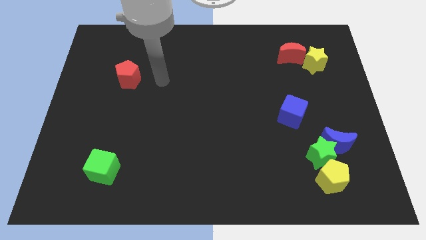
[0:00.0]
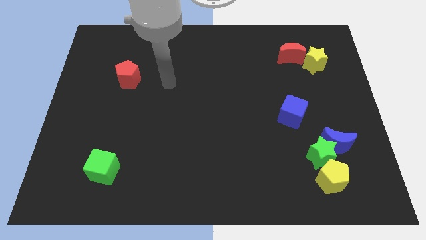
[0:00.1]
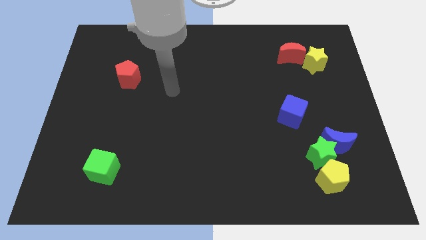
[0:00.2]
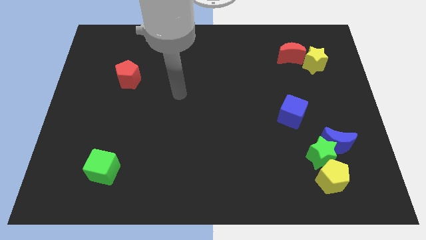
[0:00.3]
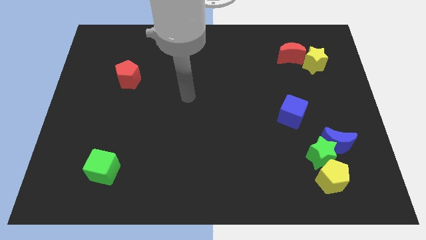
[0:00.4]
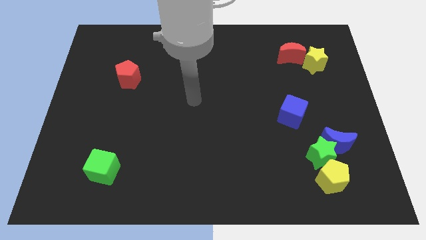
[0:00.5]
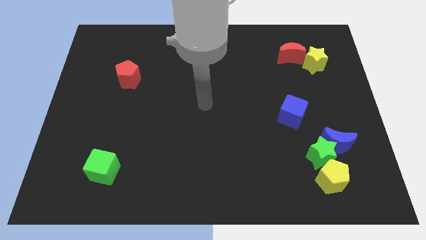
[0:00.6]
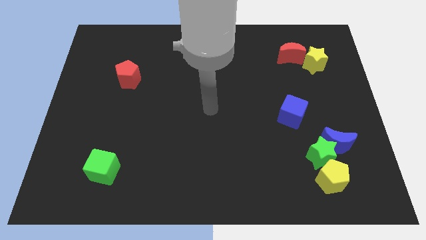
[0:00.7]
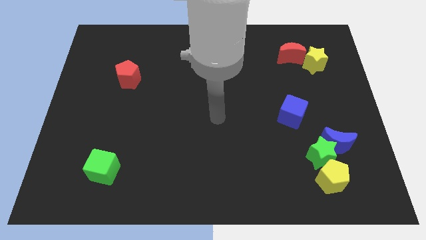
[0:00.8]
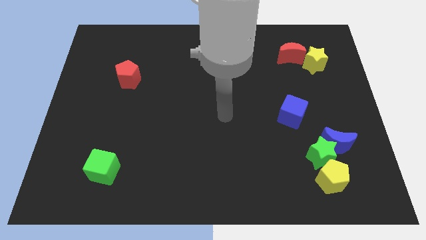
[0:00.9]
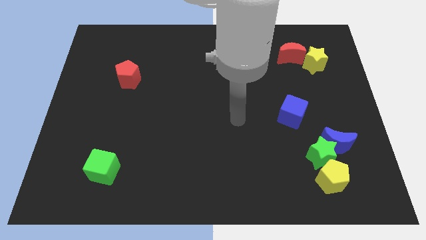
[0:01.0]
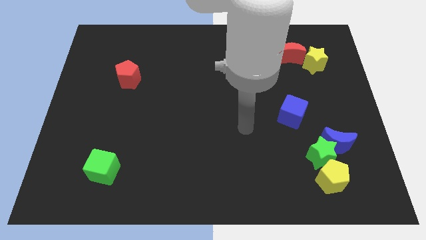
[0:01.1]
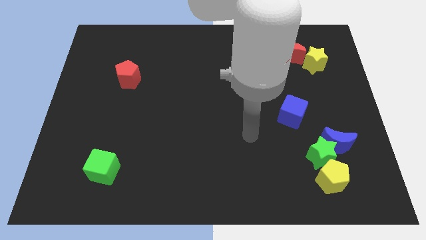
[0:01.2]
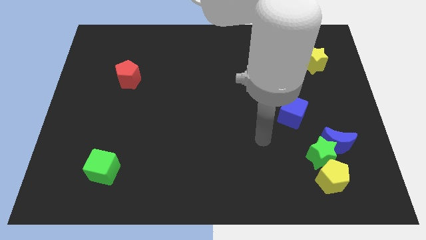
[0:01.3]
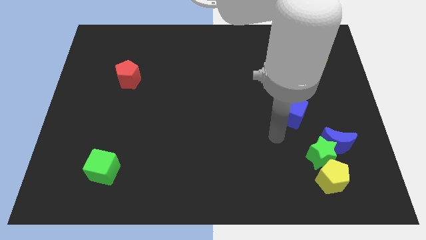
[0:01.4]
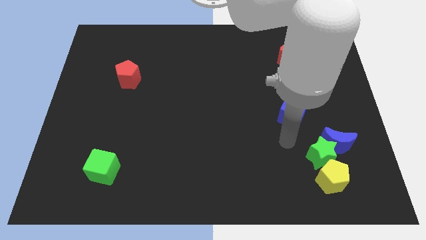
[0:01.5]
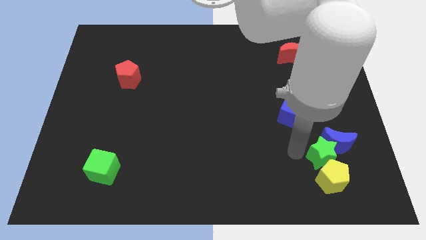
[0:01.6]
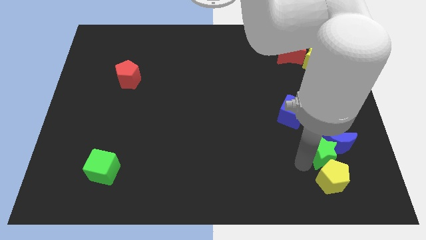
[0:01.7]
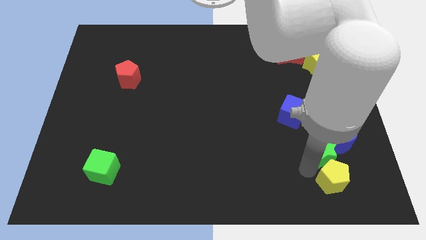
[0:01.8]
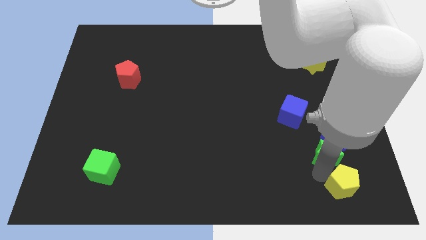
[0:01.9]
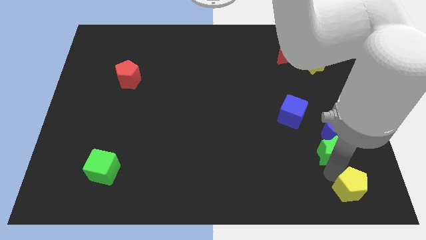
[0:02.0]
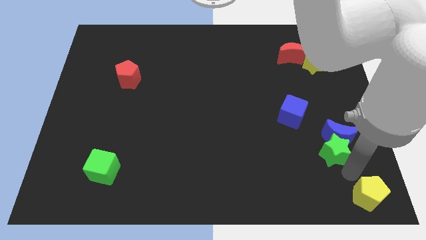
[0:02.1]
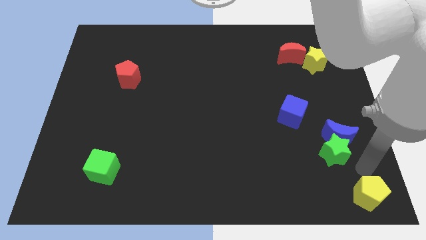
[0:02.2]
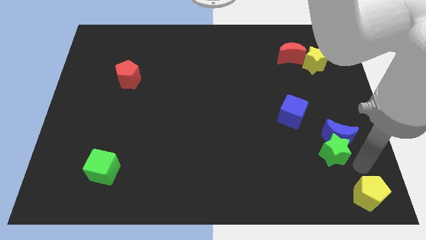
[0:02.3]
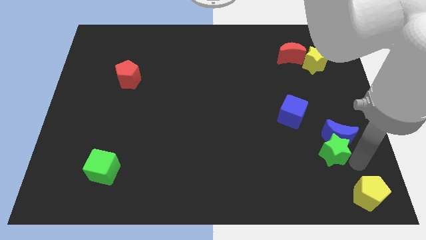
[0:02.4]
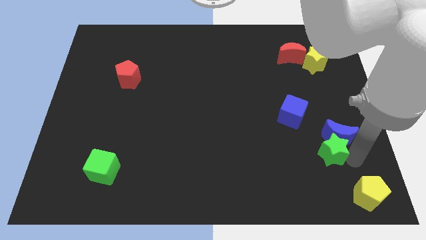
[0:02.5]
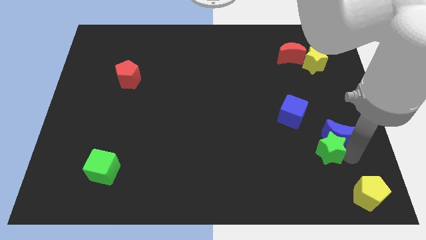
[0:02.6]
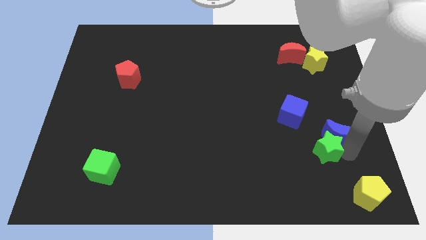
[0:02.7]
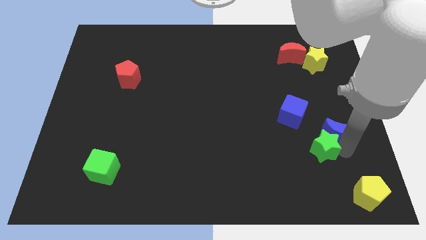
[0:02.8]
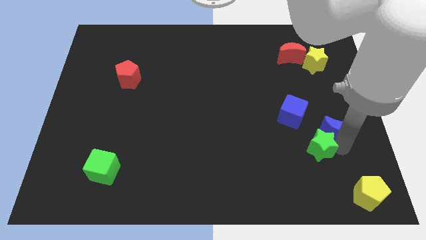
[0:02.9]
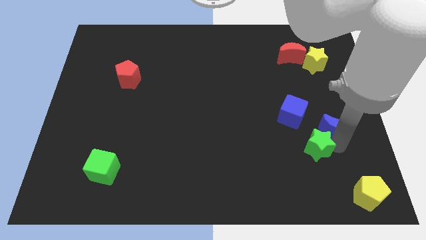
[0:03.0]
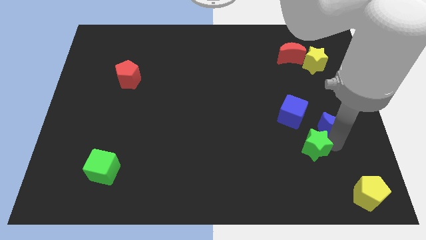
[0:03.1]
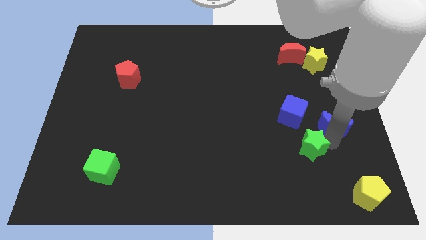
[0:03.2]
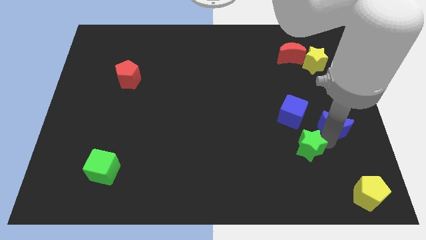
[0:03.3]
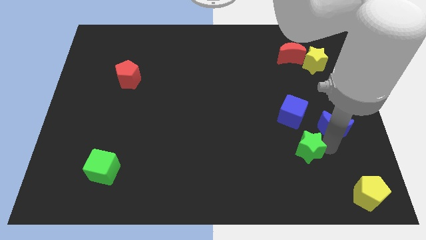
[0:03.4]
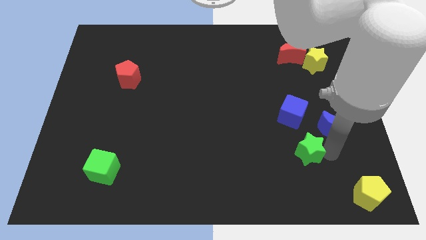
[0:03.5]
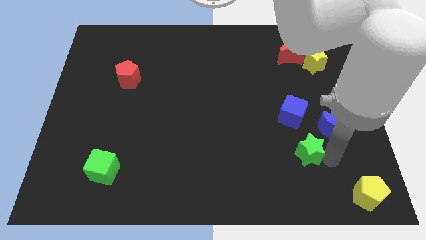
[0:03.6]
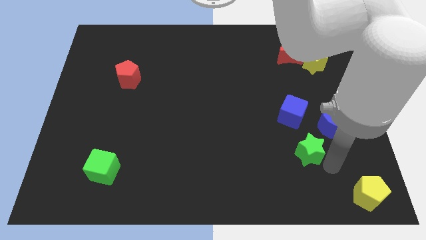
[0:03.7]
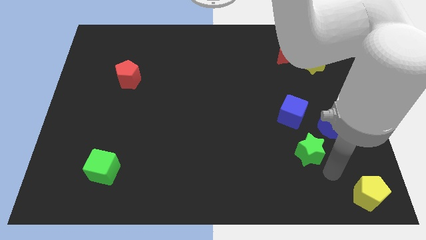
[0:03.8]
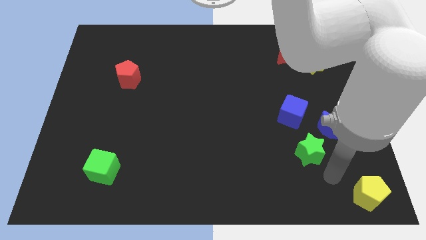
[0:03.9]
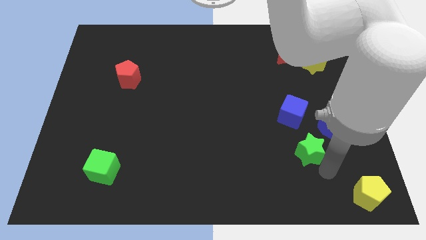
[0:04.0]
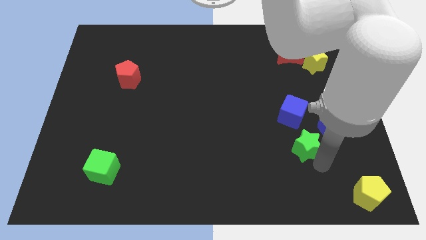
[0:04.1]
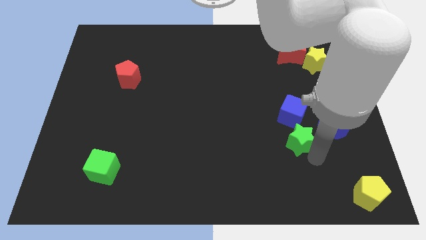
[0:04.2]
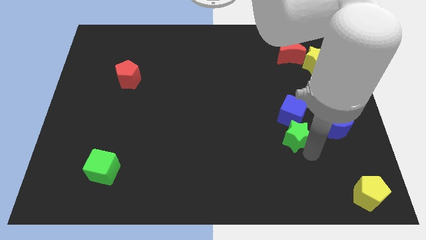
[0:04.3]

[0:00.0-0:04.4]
slightly move the green star up and left diagonally

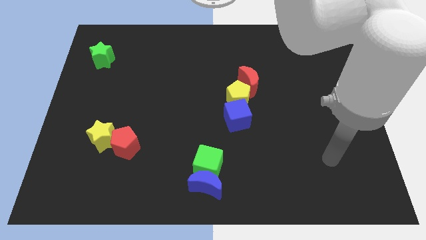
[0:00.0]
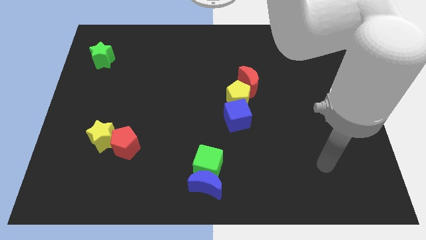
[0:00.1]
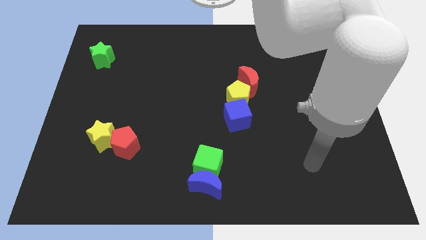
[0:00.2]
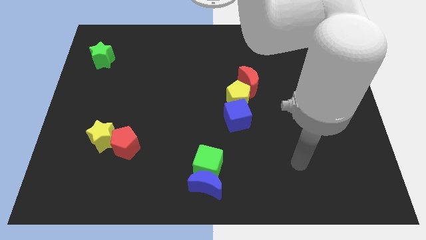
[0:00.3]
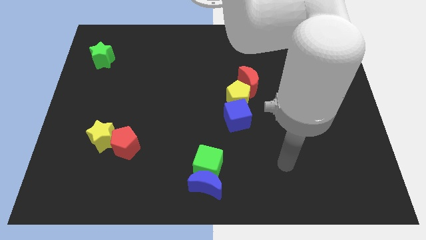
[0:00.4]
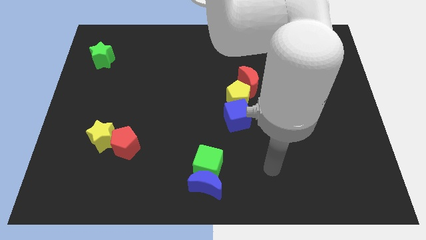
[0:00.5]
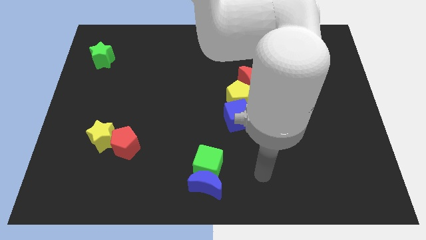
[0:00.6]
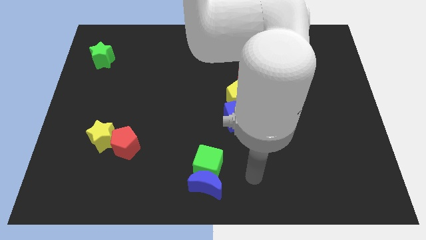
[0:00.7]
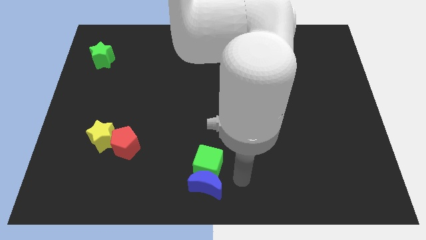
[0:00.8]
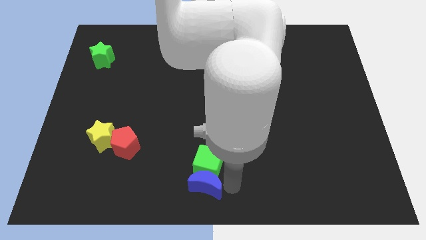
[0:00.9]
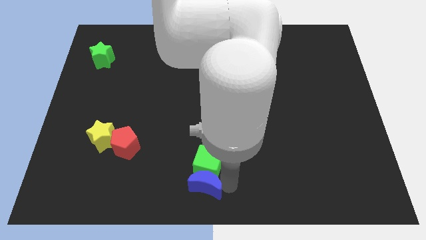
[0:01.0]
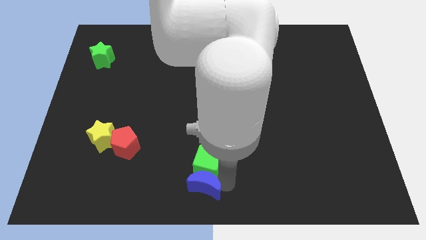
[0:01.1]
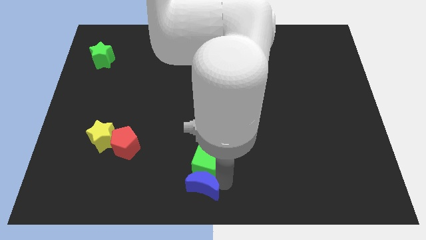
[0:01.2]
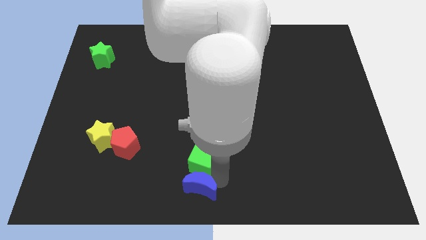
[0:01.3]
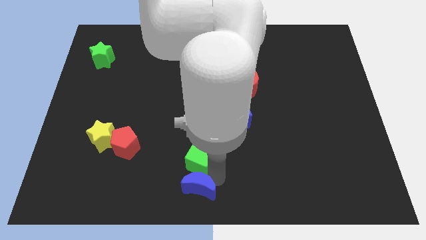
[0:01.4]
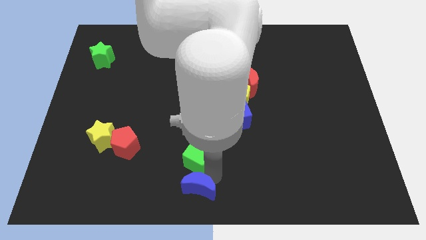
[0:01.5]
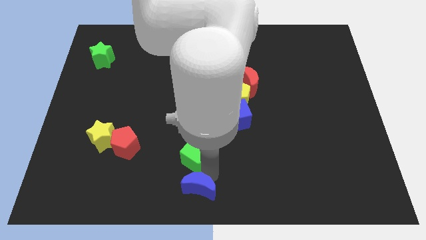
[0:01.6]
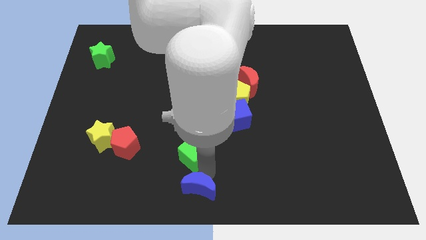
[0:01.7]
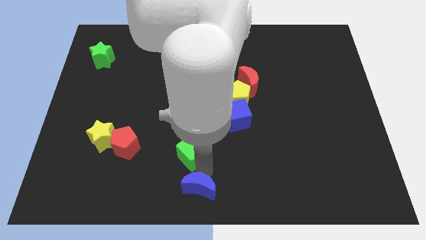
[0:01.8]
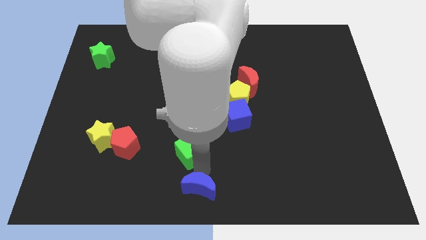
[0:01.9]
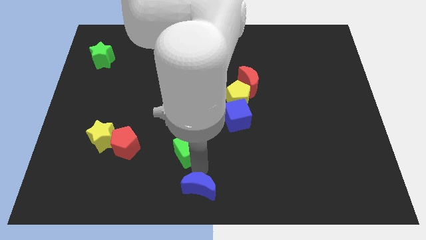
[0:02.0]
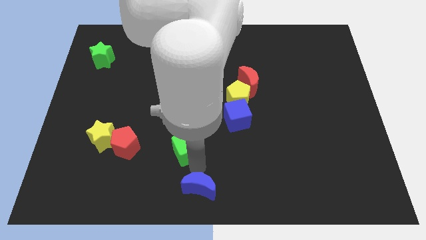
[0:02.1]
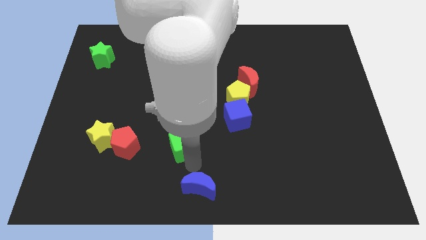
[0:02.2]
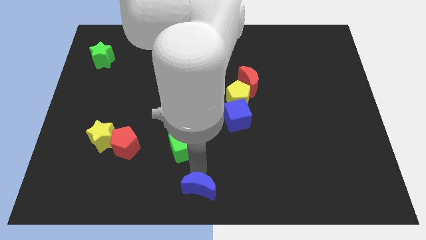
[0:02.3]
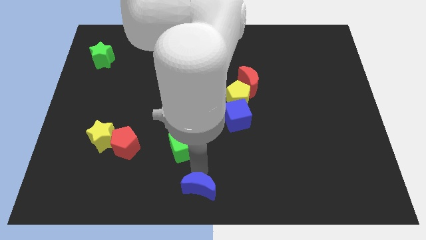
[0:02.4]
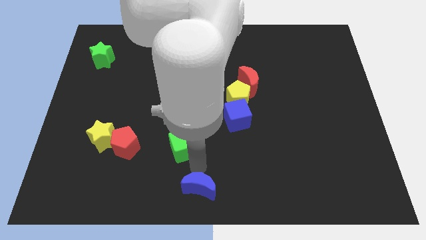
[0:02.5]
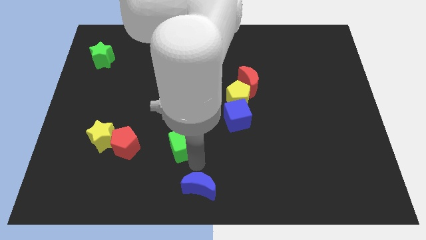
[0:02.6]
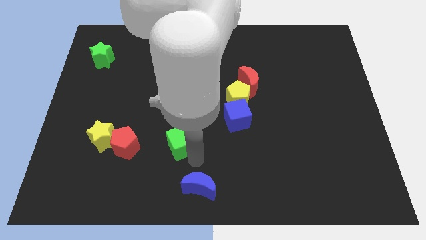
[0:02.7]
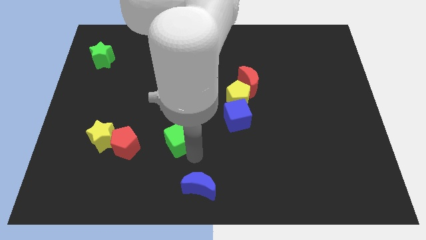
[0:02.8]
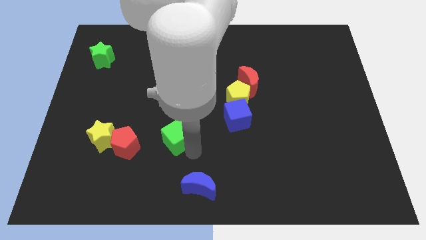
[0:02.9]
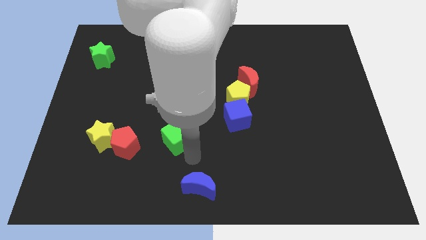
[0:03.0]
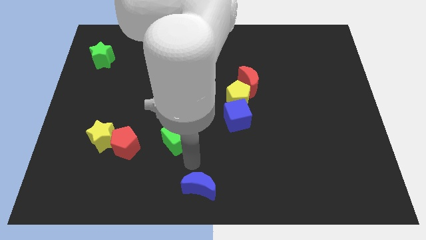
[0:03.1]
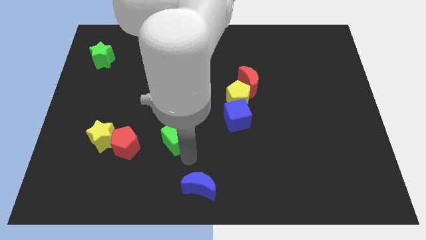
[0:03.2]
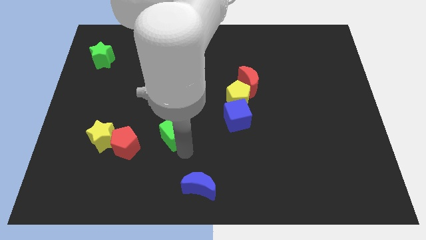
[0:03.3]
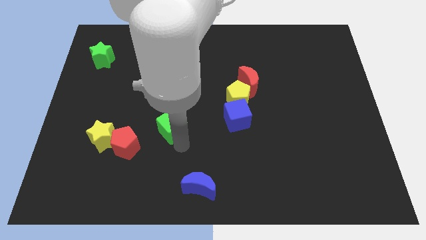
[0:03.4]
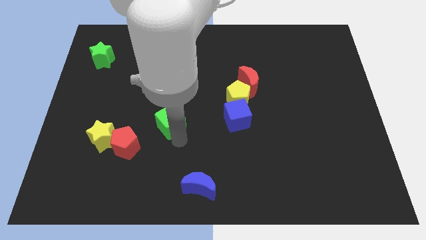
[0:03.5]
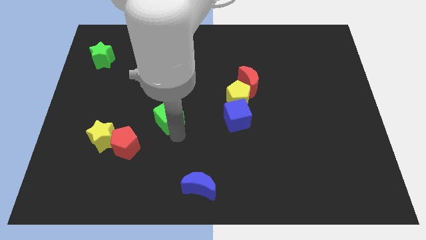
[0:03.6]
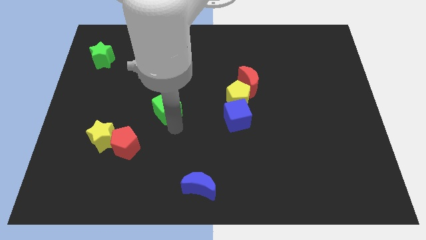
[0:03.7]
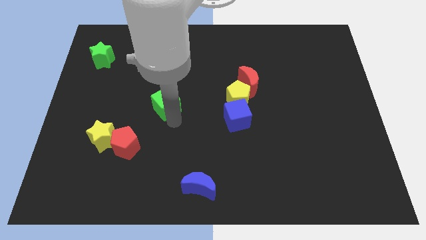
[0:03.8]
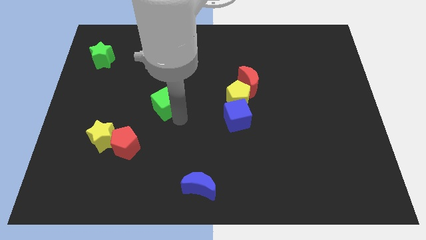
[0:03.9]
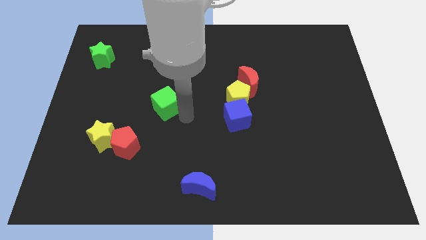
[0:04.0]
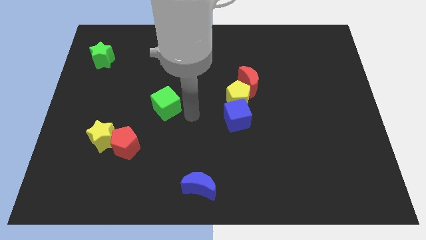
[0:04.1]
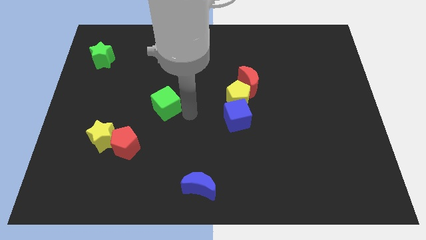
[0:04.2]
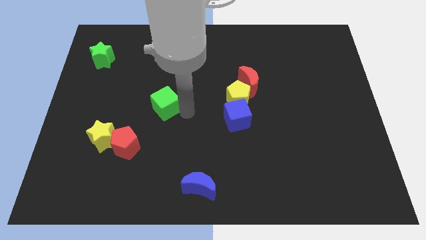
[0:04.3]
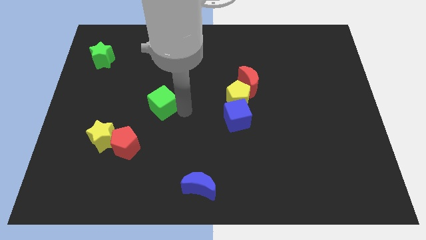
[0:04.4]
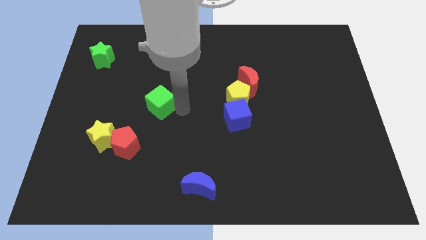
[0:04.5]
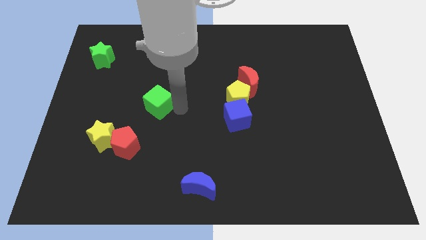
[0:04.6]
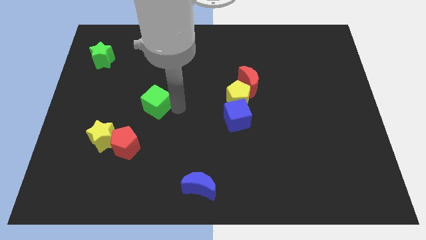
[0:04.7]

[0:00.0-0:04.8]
push the green cube upwards and left diagonally
